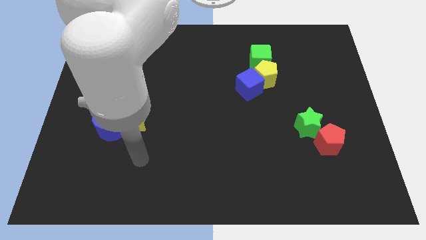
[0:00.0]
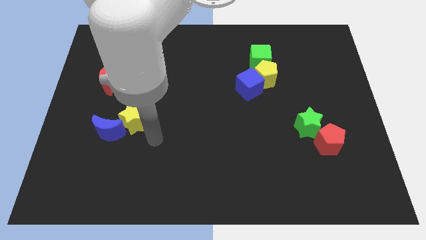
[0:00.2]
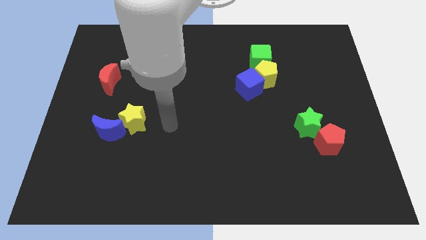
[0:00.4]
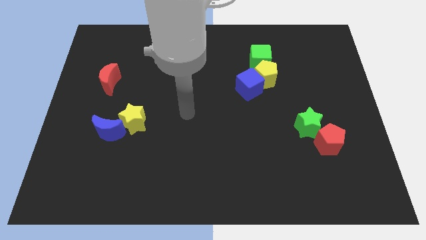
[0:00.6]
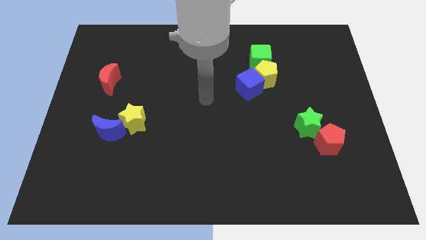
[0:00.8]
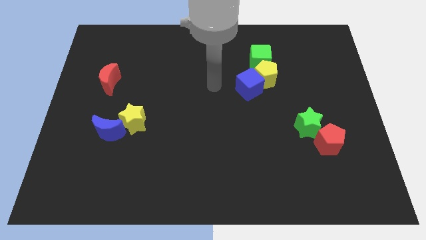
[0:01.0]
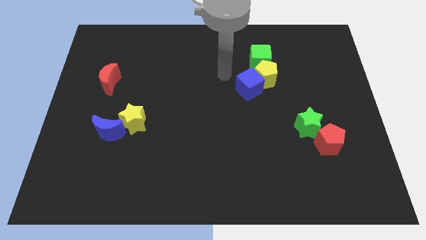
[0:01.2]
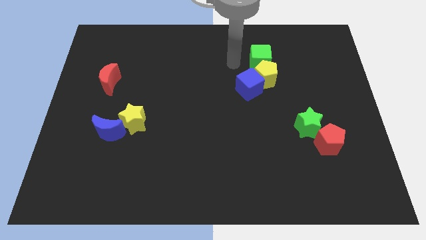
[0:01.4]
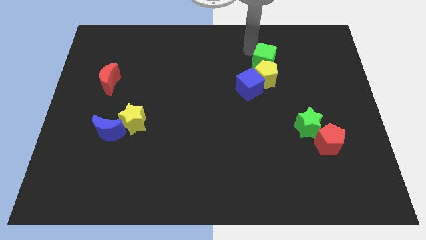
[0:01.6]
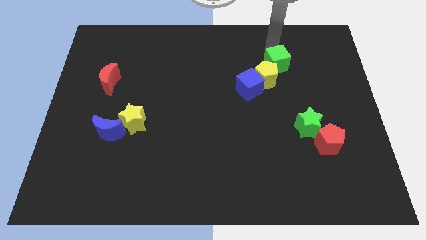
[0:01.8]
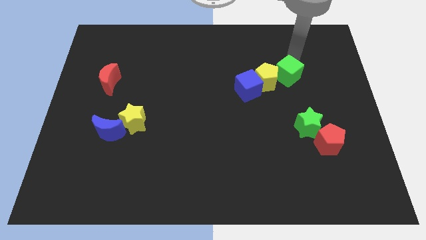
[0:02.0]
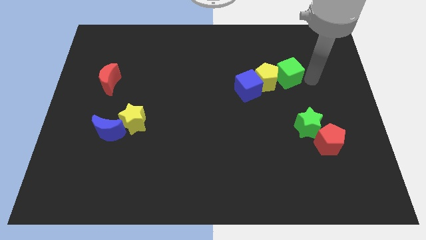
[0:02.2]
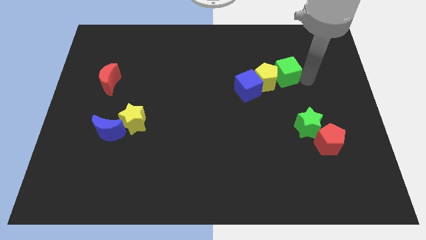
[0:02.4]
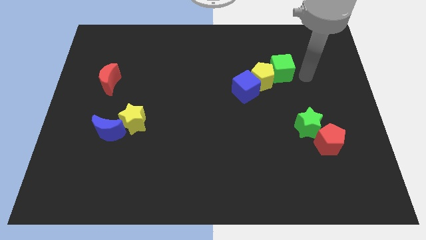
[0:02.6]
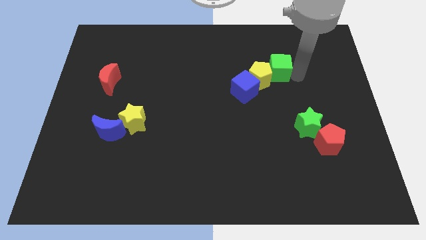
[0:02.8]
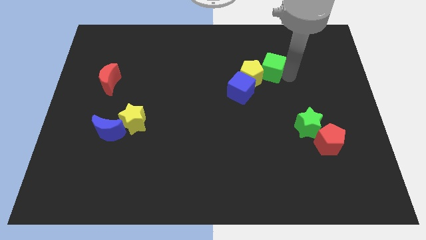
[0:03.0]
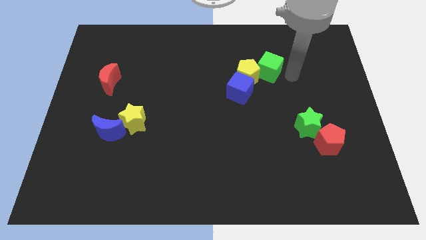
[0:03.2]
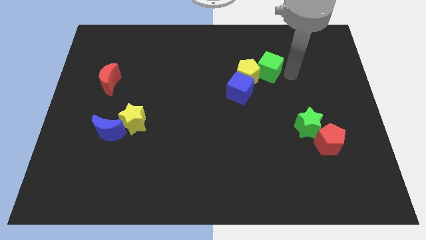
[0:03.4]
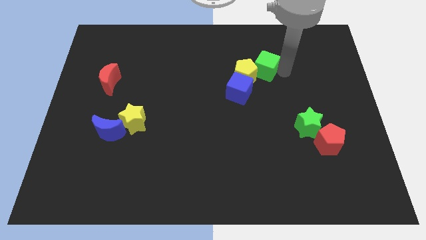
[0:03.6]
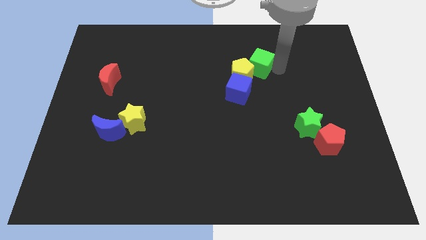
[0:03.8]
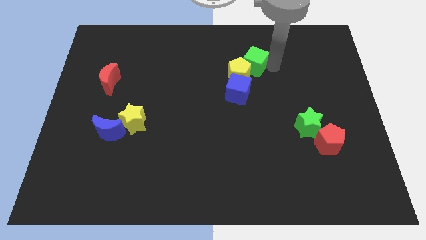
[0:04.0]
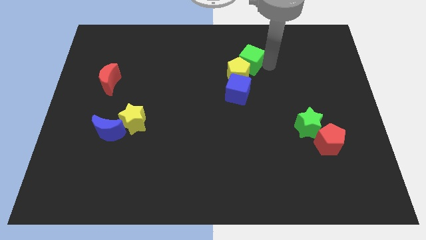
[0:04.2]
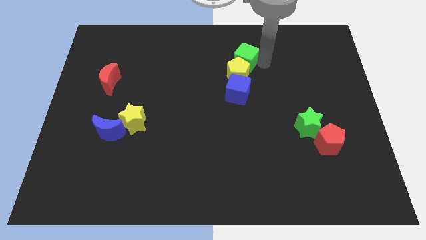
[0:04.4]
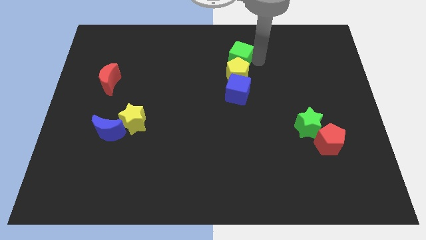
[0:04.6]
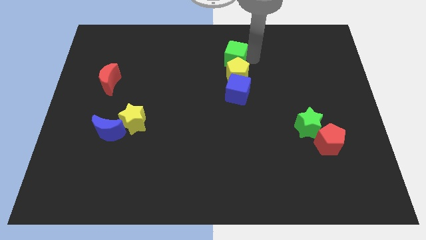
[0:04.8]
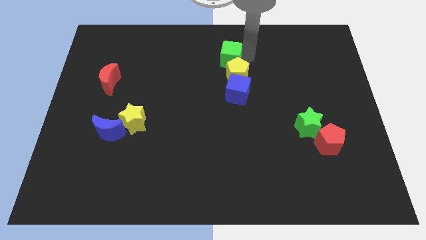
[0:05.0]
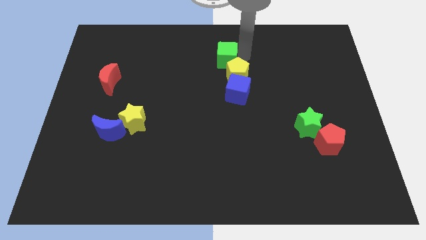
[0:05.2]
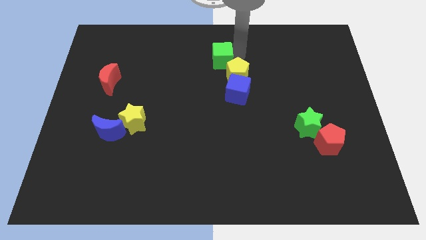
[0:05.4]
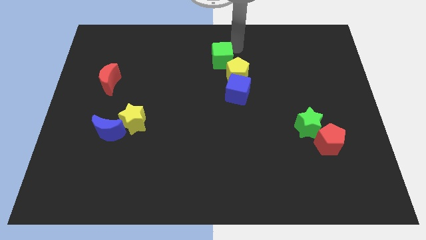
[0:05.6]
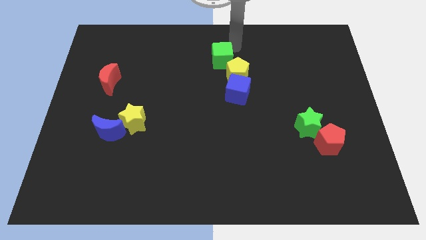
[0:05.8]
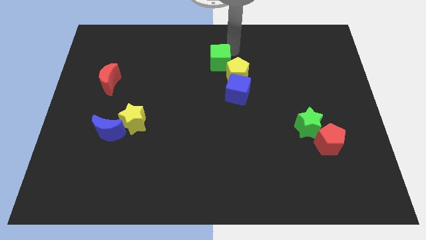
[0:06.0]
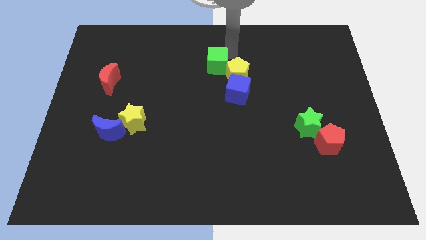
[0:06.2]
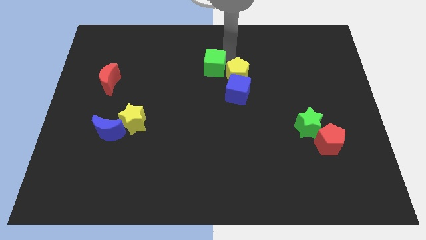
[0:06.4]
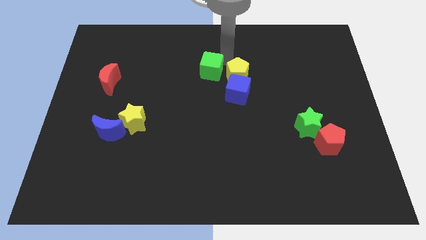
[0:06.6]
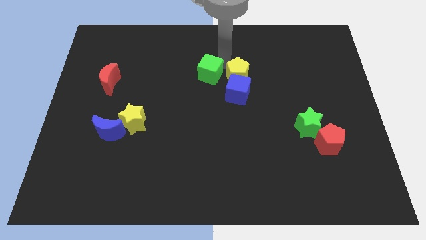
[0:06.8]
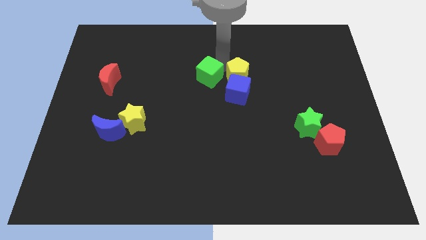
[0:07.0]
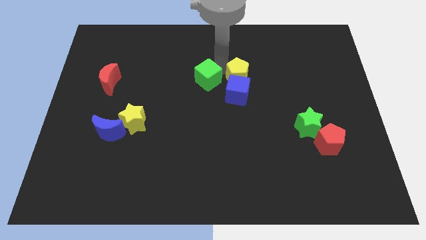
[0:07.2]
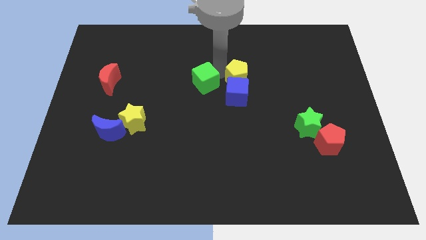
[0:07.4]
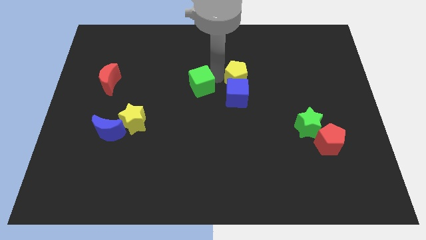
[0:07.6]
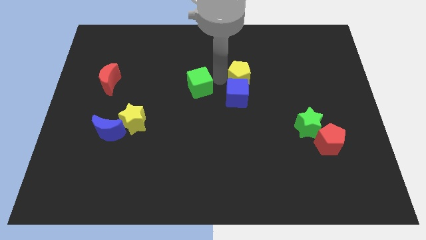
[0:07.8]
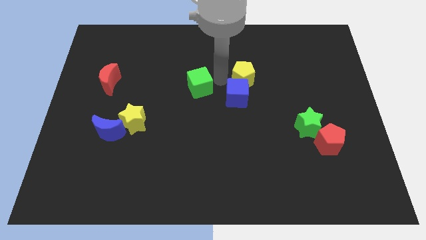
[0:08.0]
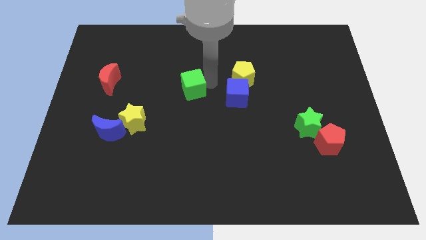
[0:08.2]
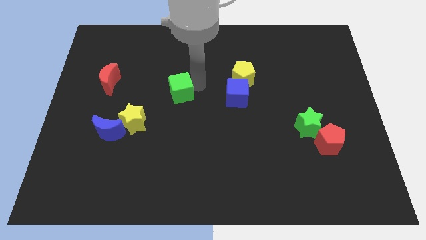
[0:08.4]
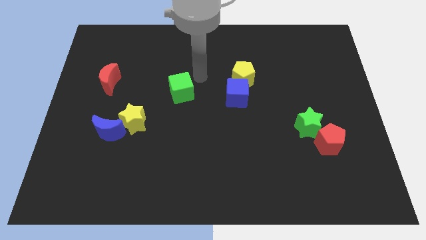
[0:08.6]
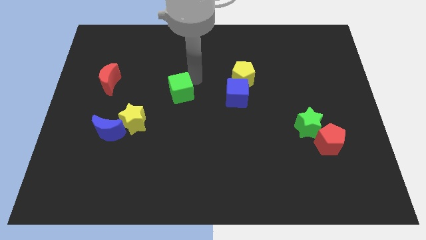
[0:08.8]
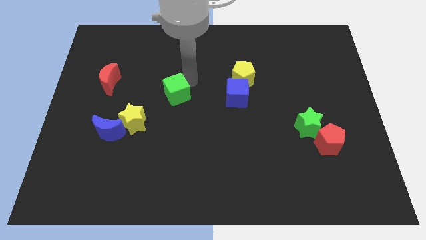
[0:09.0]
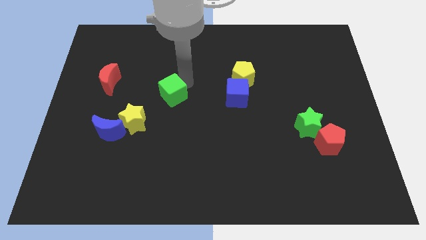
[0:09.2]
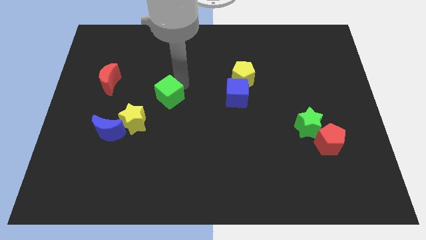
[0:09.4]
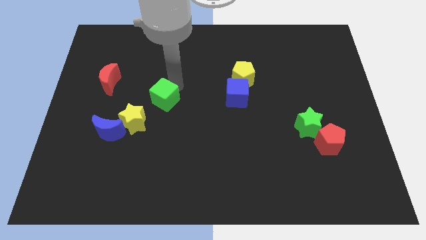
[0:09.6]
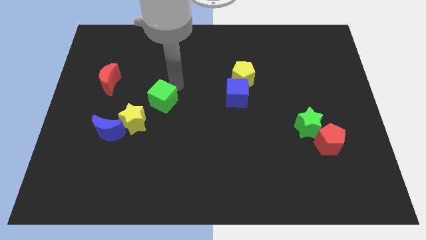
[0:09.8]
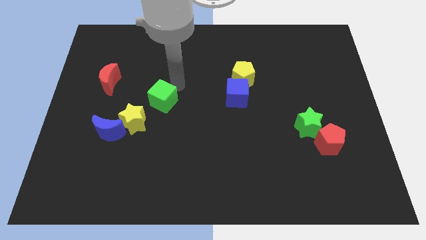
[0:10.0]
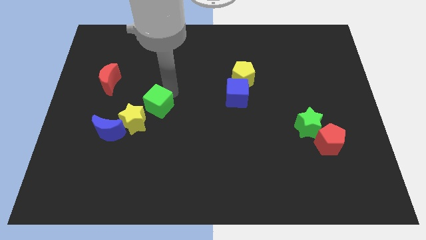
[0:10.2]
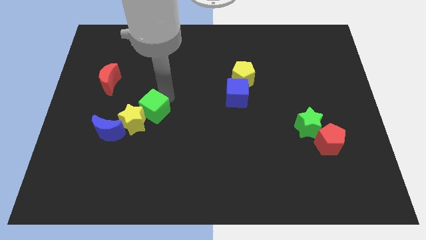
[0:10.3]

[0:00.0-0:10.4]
push the green cube next to the yellow star

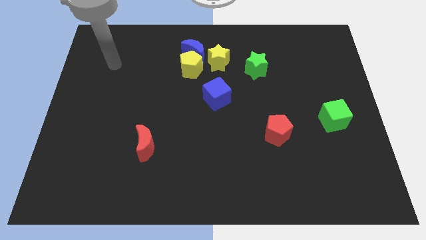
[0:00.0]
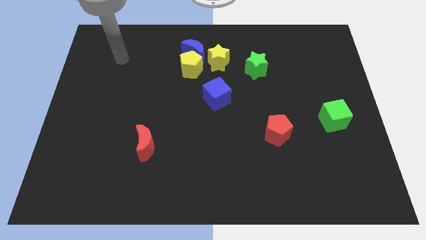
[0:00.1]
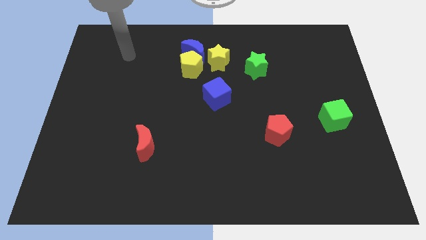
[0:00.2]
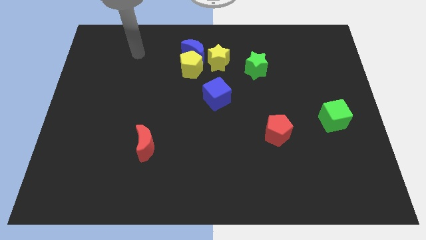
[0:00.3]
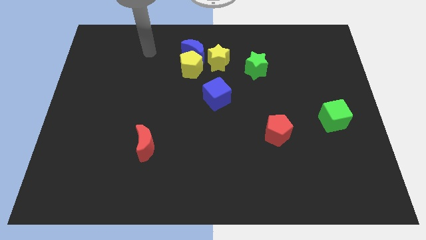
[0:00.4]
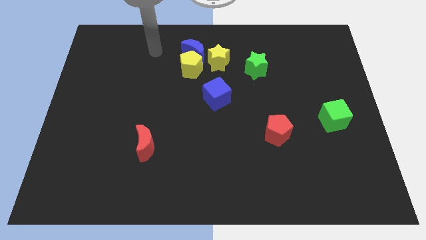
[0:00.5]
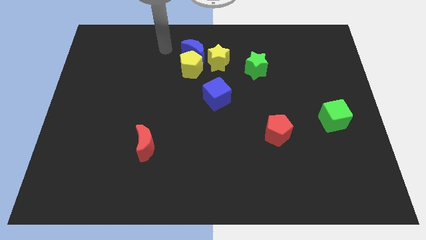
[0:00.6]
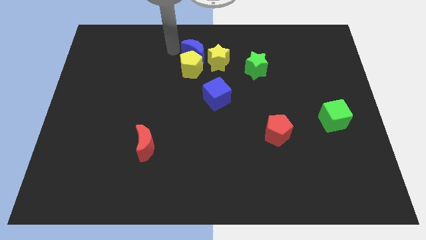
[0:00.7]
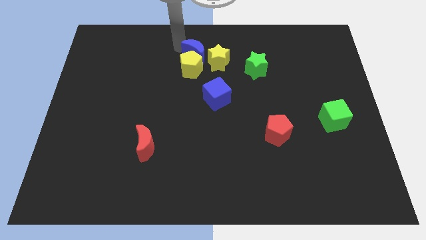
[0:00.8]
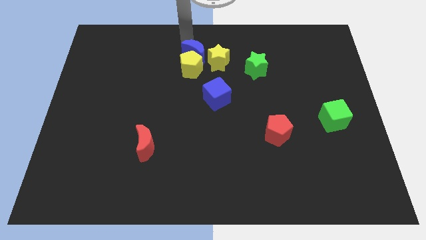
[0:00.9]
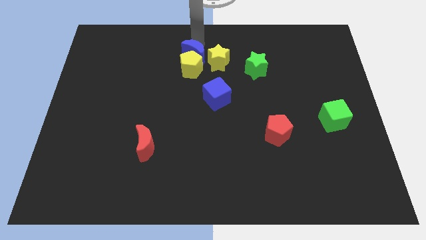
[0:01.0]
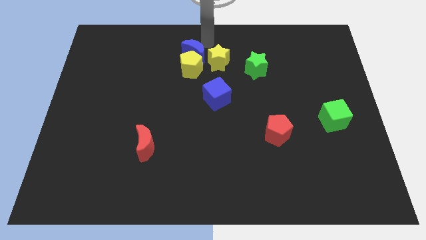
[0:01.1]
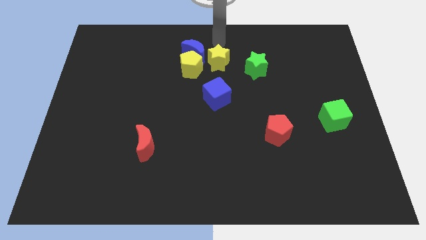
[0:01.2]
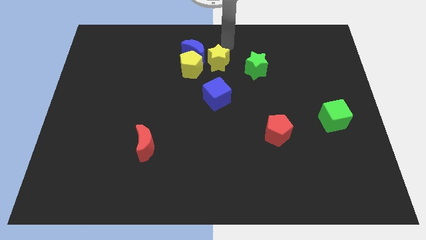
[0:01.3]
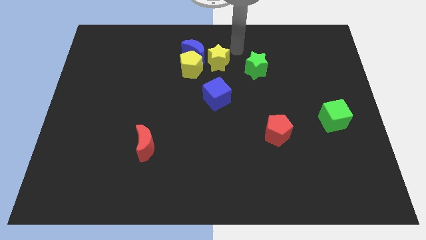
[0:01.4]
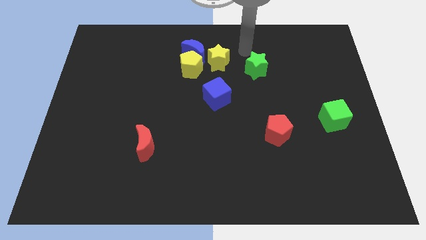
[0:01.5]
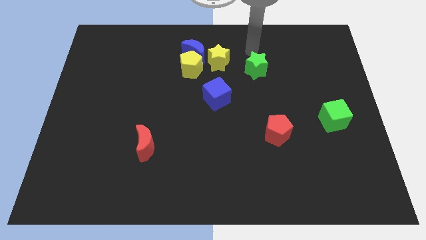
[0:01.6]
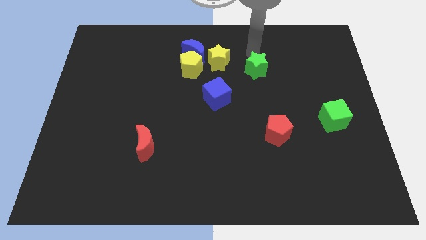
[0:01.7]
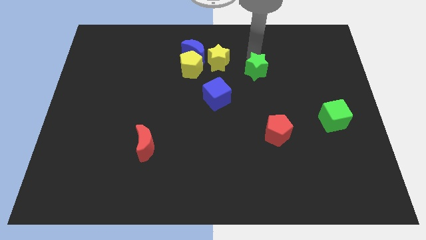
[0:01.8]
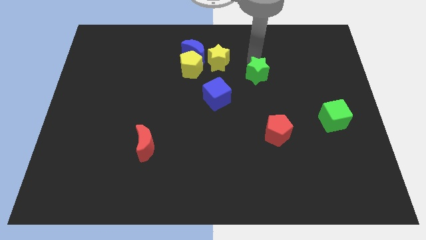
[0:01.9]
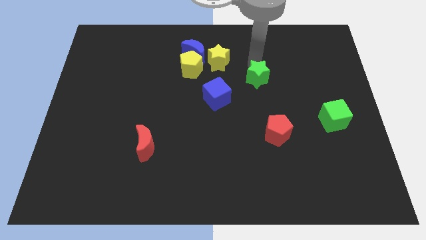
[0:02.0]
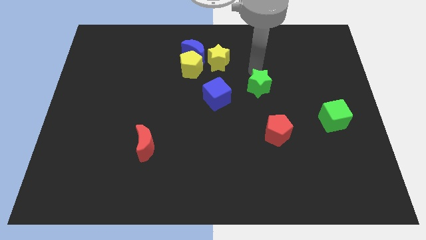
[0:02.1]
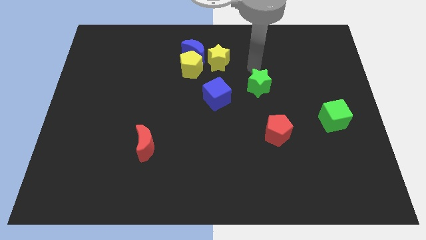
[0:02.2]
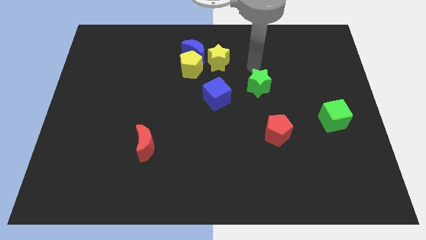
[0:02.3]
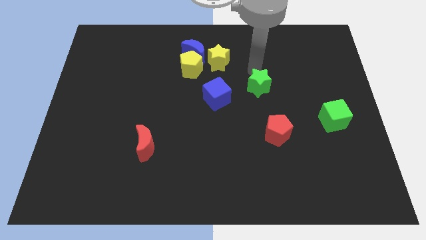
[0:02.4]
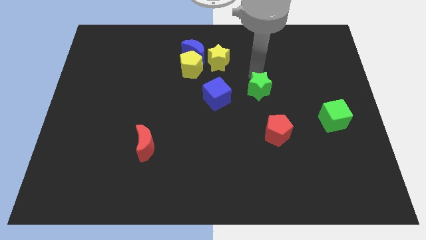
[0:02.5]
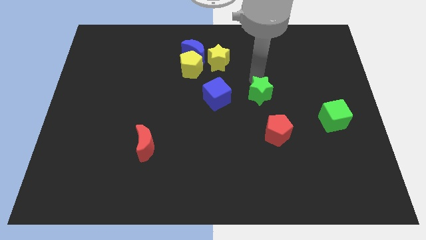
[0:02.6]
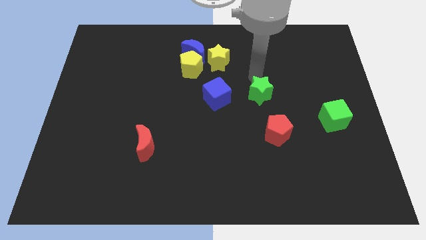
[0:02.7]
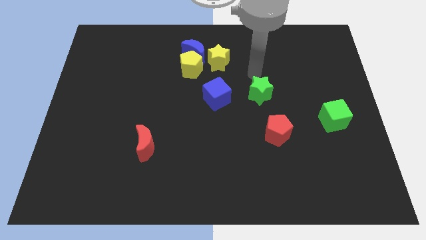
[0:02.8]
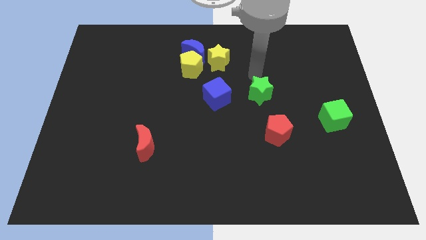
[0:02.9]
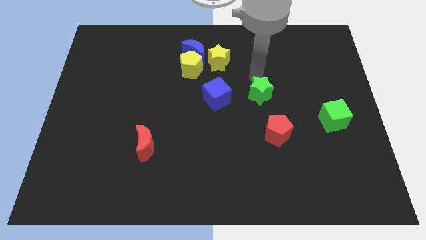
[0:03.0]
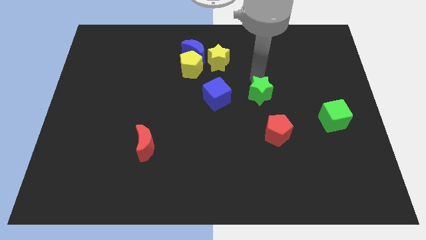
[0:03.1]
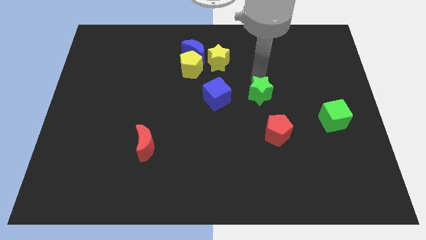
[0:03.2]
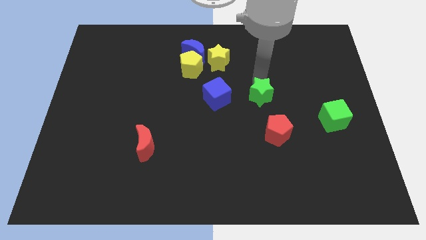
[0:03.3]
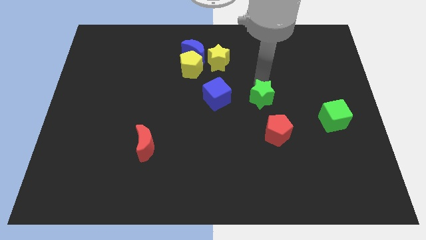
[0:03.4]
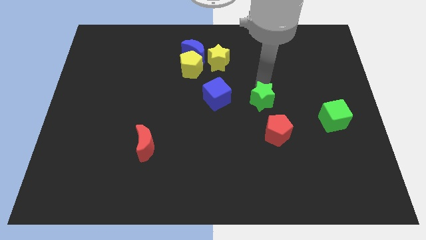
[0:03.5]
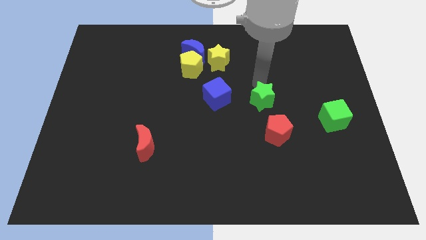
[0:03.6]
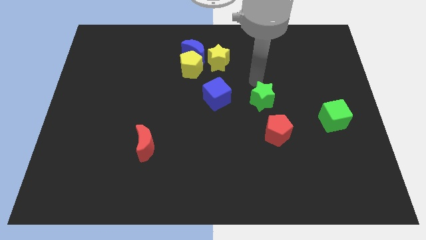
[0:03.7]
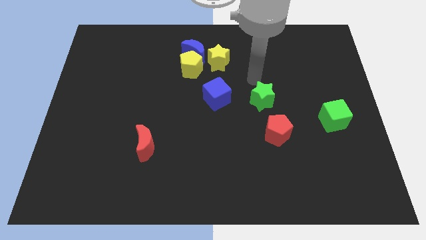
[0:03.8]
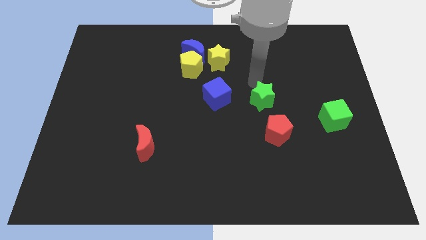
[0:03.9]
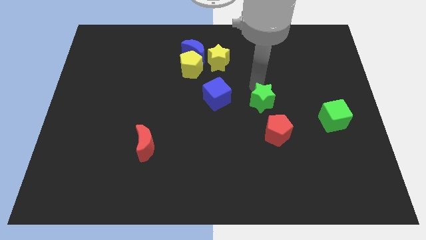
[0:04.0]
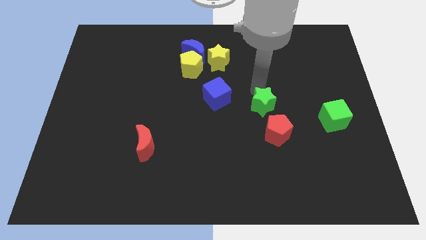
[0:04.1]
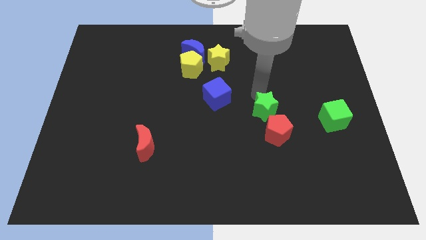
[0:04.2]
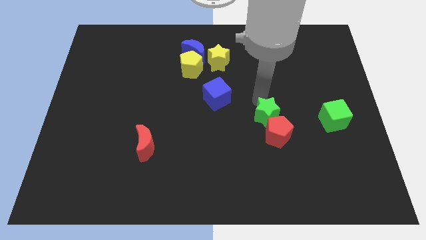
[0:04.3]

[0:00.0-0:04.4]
slide the green star next to the red pentagon
